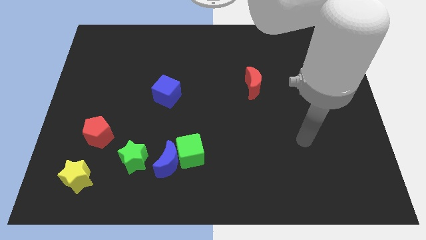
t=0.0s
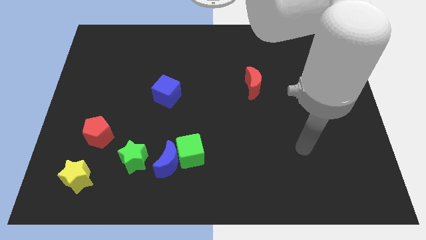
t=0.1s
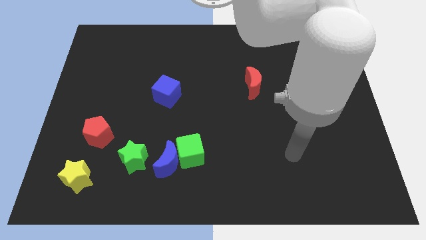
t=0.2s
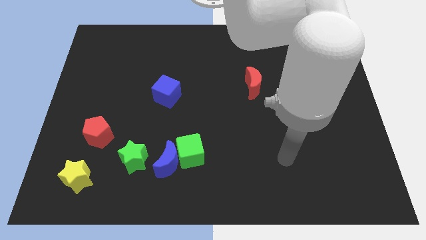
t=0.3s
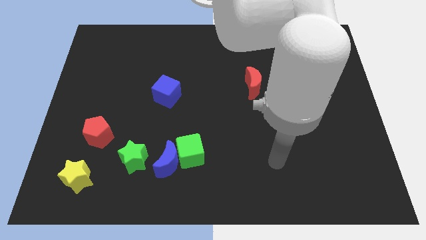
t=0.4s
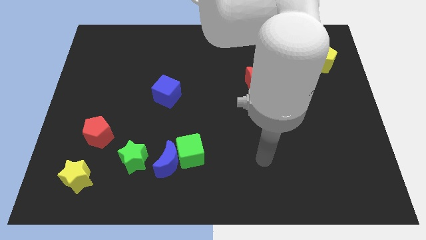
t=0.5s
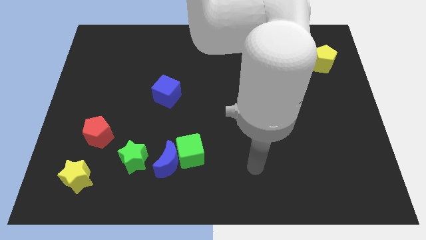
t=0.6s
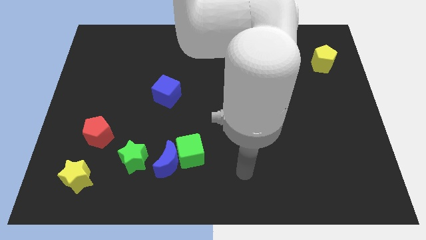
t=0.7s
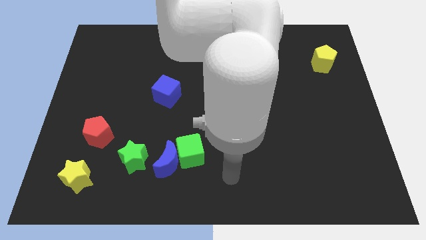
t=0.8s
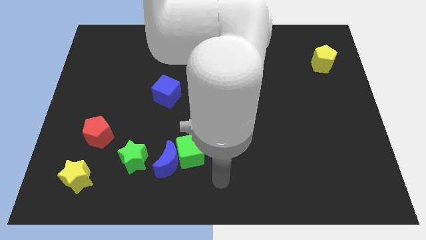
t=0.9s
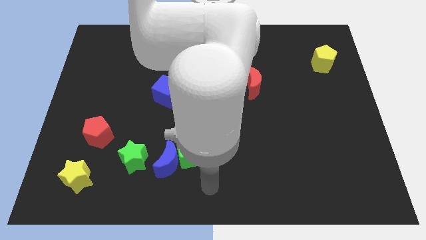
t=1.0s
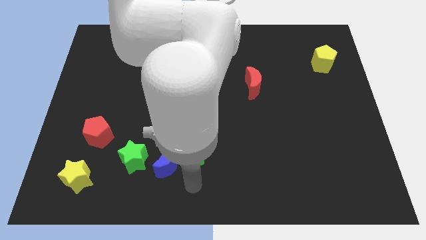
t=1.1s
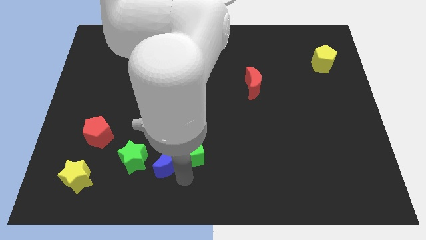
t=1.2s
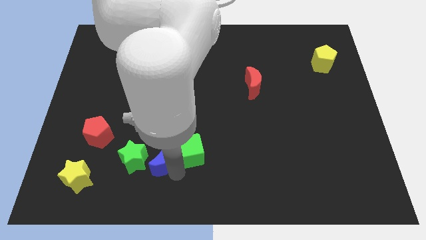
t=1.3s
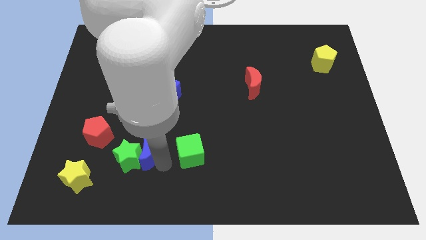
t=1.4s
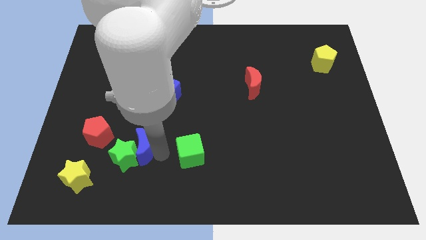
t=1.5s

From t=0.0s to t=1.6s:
separate the green cube from the blue moon

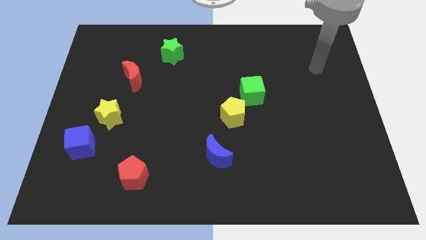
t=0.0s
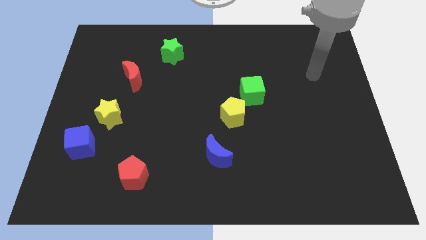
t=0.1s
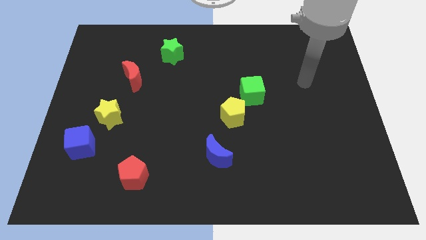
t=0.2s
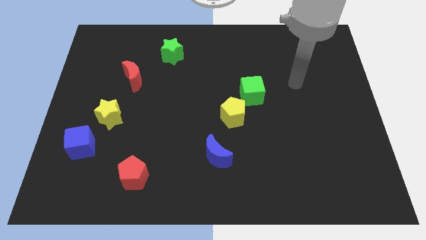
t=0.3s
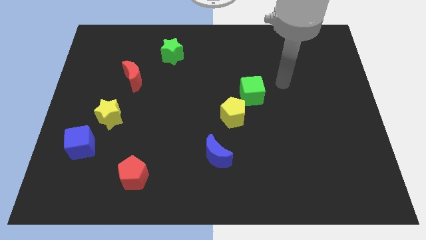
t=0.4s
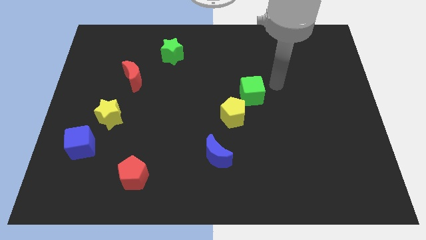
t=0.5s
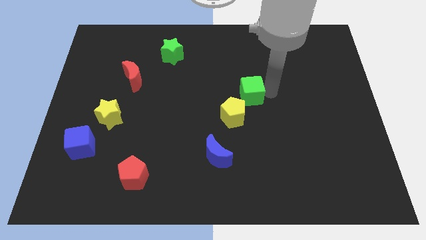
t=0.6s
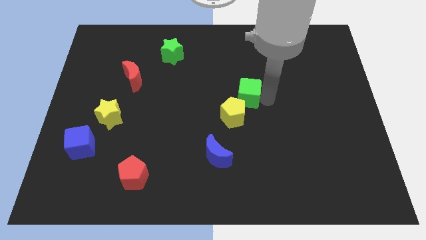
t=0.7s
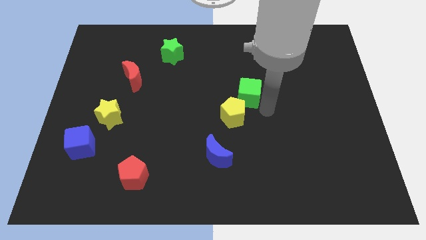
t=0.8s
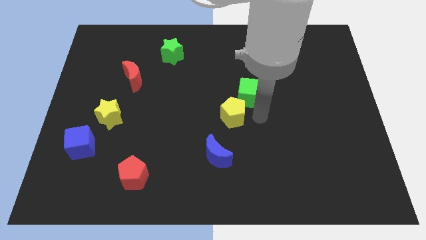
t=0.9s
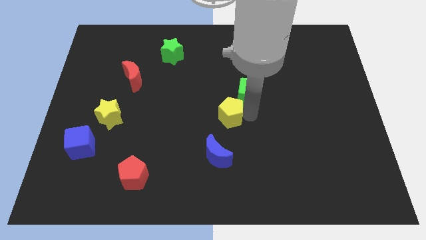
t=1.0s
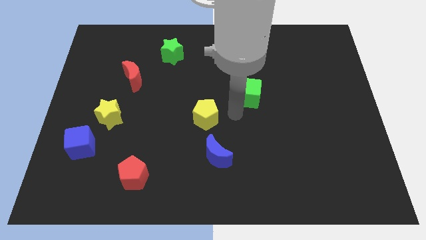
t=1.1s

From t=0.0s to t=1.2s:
pull the green cube apart from the yellow pentagon

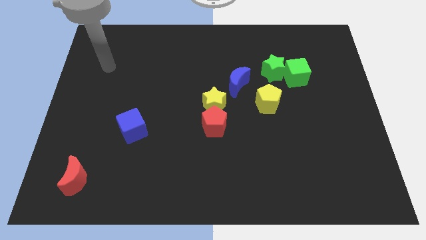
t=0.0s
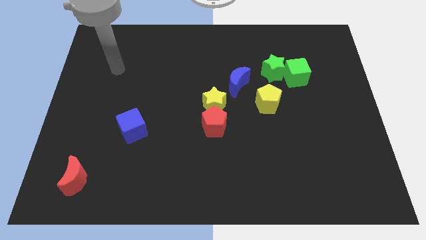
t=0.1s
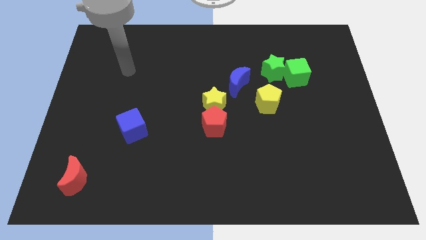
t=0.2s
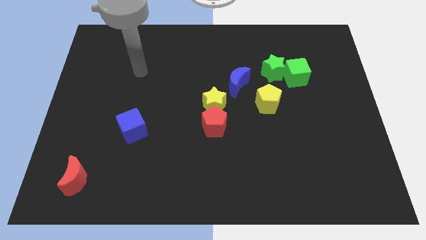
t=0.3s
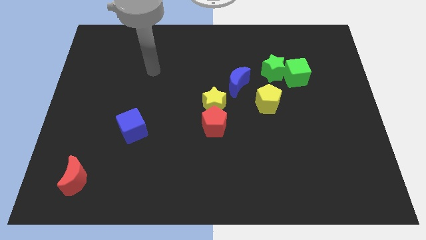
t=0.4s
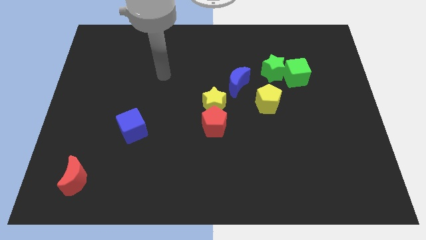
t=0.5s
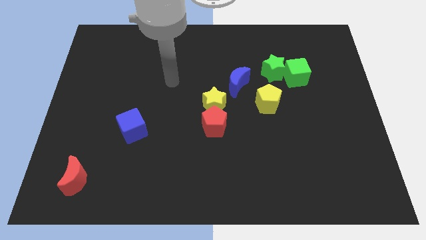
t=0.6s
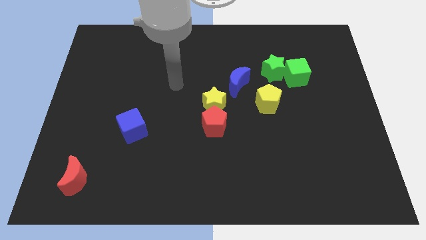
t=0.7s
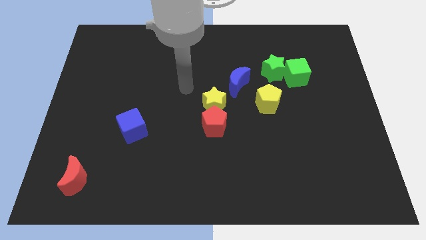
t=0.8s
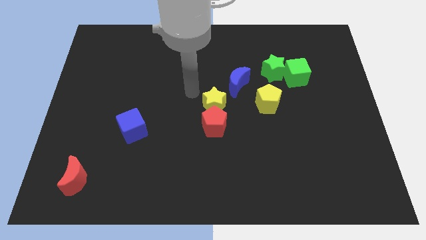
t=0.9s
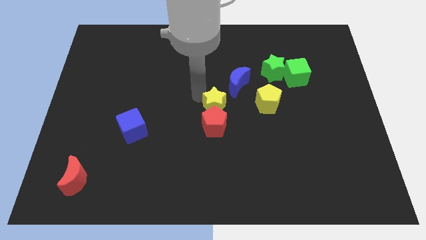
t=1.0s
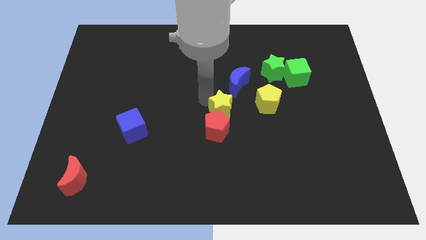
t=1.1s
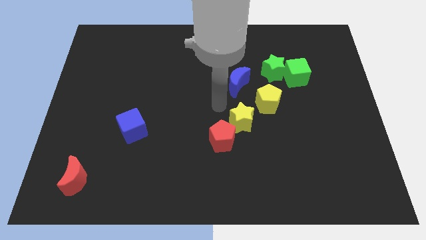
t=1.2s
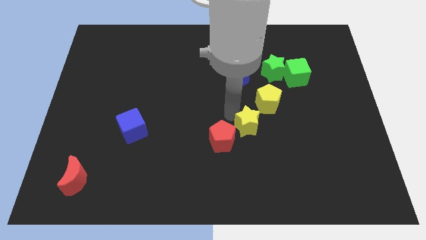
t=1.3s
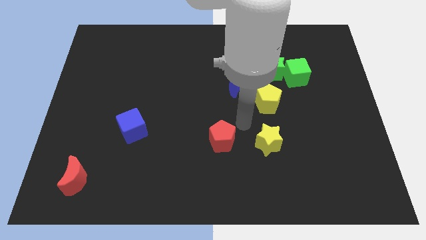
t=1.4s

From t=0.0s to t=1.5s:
move the red pentagon away from the yellow star

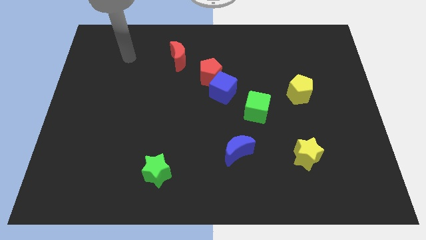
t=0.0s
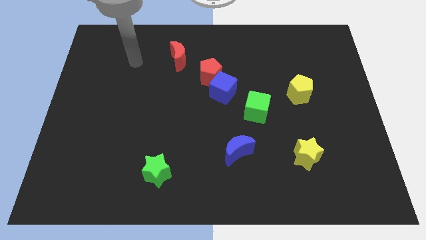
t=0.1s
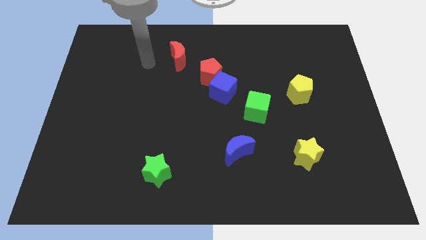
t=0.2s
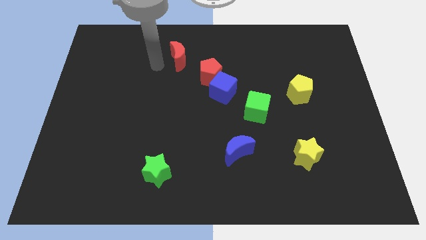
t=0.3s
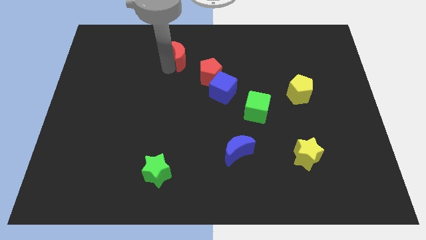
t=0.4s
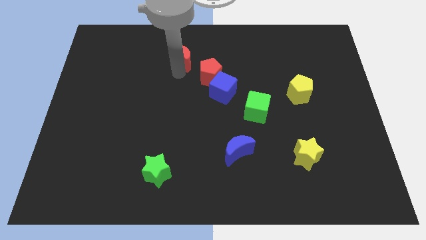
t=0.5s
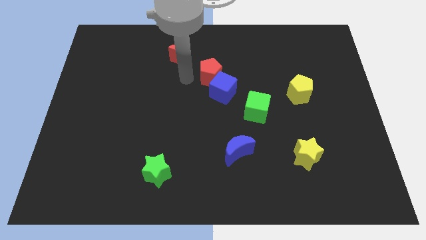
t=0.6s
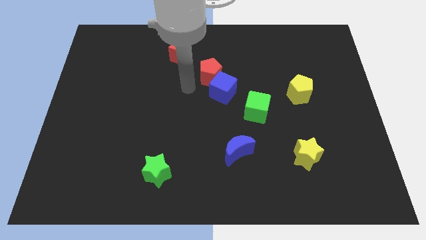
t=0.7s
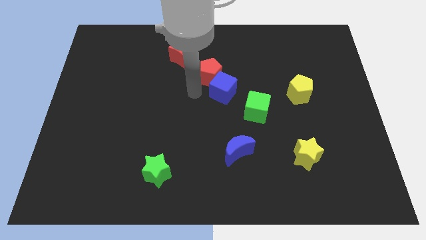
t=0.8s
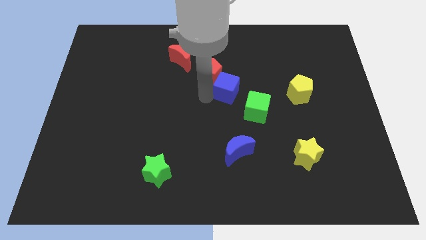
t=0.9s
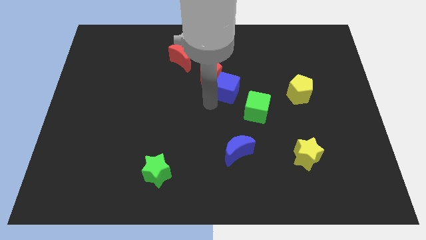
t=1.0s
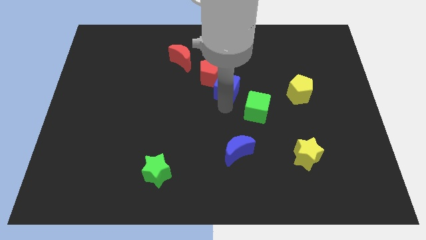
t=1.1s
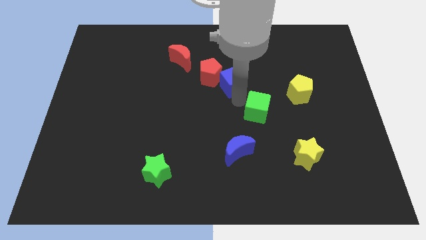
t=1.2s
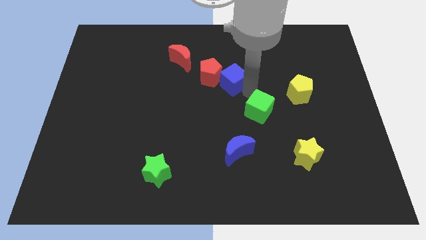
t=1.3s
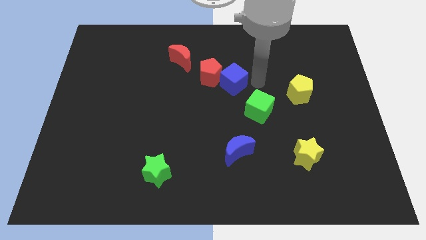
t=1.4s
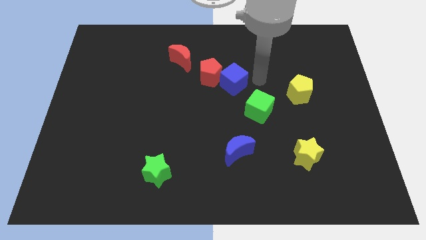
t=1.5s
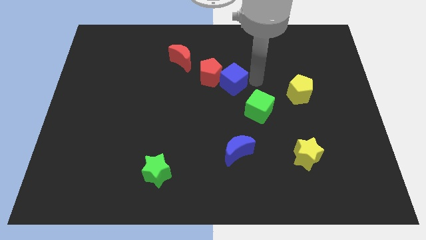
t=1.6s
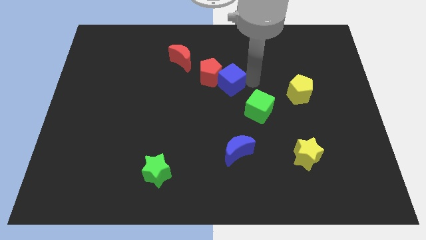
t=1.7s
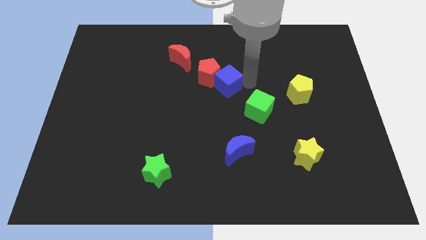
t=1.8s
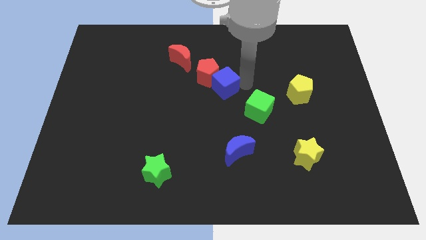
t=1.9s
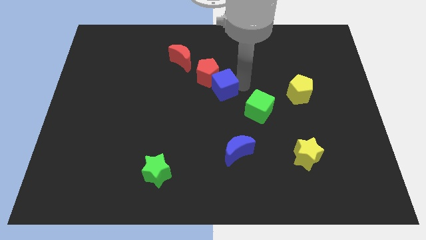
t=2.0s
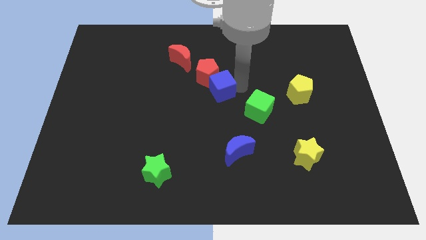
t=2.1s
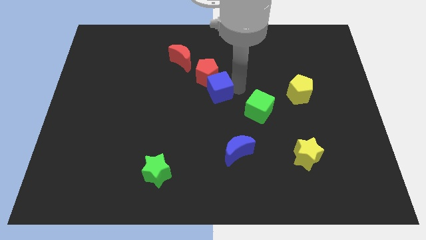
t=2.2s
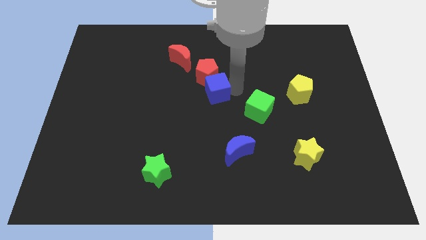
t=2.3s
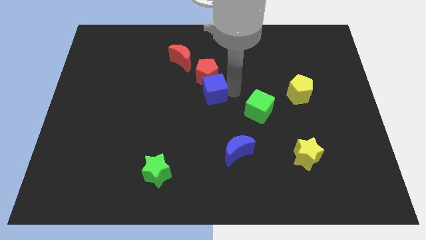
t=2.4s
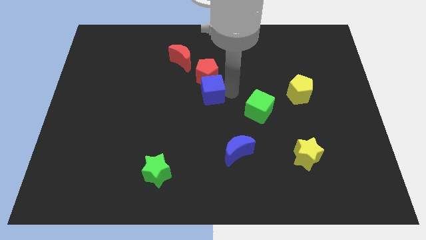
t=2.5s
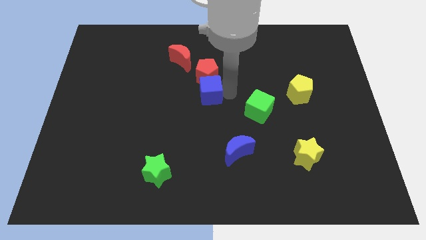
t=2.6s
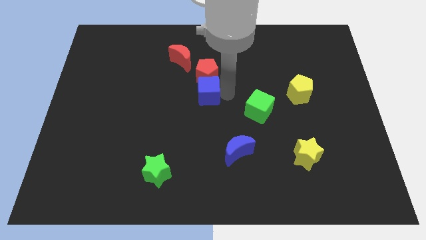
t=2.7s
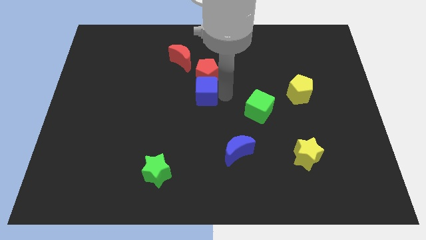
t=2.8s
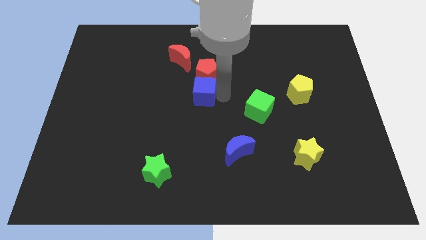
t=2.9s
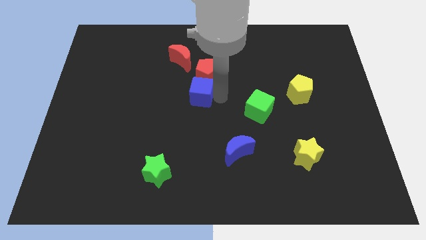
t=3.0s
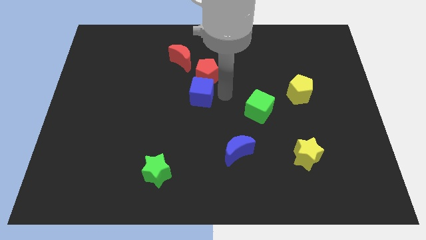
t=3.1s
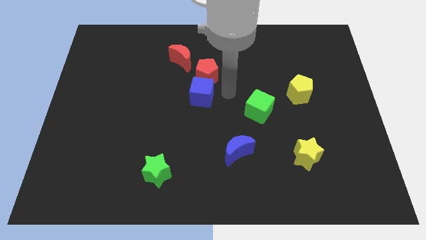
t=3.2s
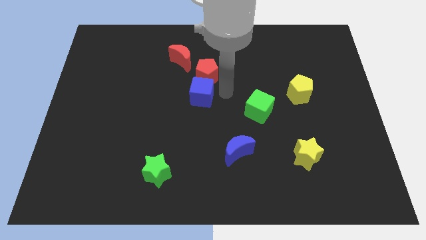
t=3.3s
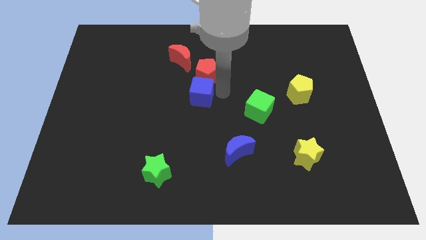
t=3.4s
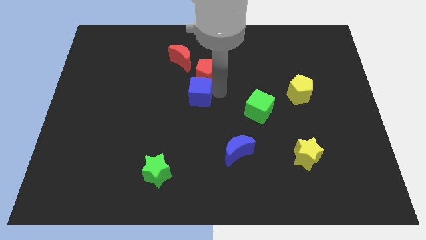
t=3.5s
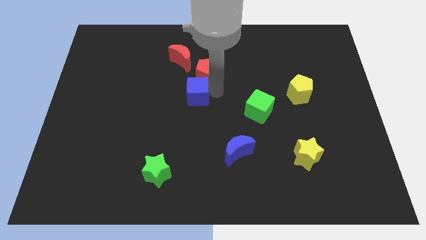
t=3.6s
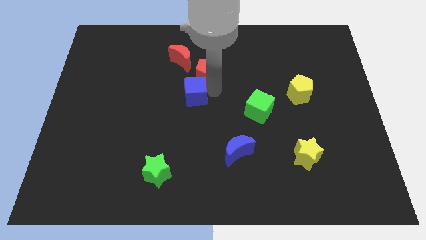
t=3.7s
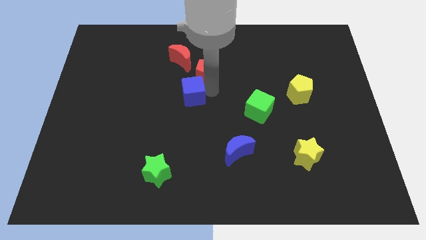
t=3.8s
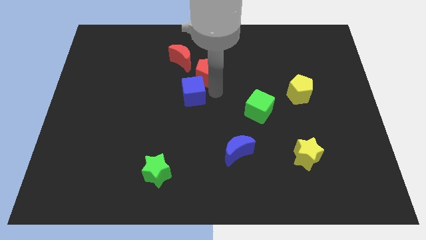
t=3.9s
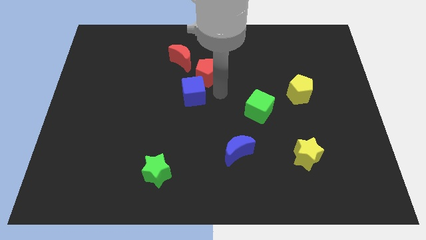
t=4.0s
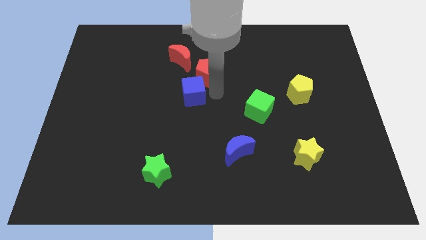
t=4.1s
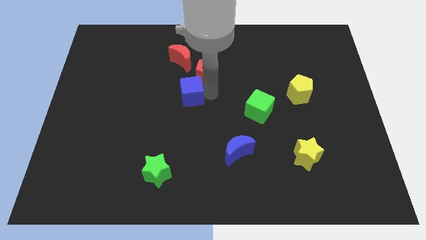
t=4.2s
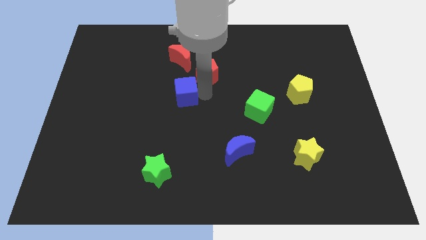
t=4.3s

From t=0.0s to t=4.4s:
separate the blue cube from the red pentagon and green cube

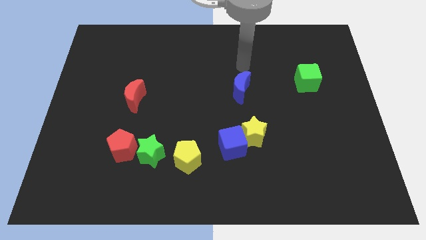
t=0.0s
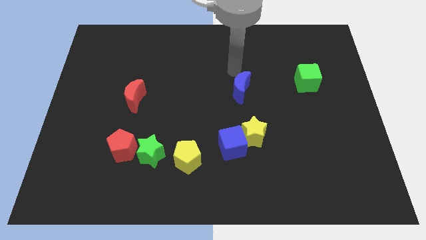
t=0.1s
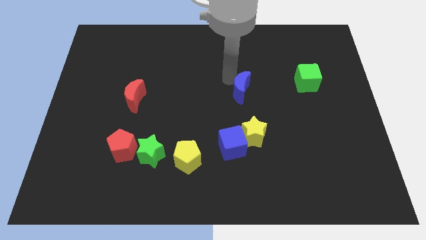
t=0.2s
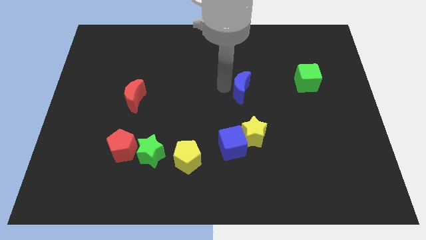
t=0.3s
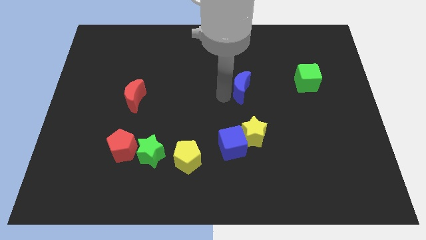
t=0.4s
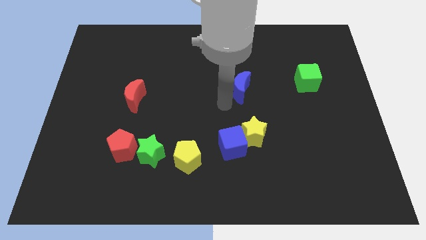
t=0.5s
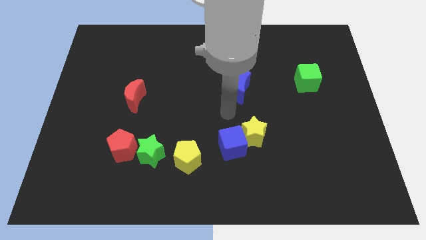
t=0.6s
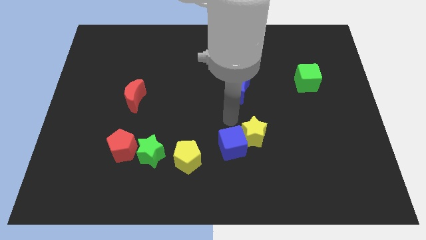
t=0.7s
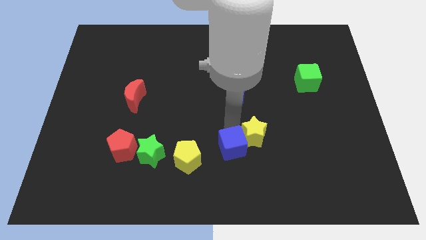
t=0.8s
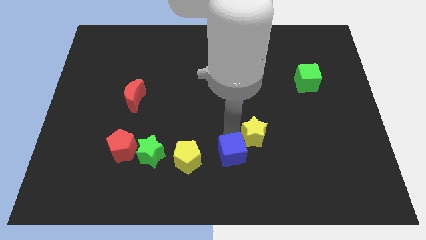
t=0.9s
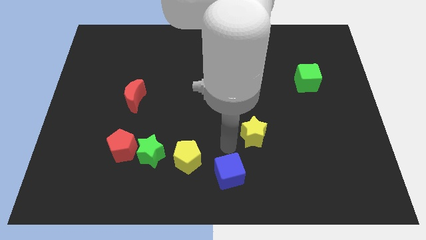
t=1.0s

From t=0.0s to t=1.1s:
pull the yellow star apart from the blue cube
